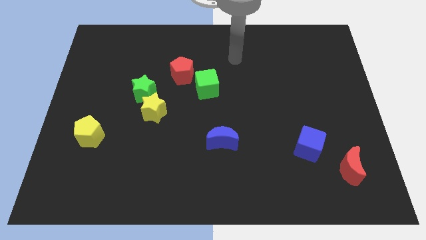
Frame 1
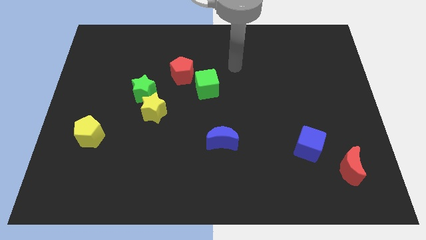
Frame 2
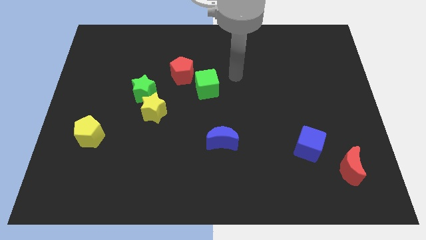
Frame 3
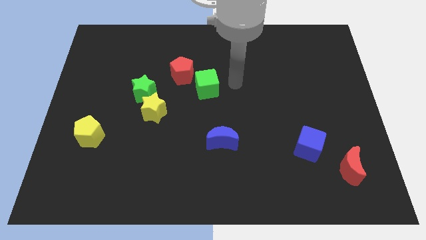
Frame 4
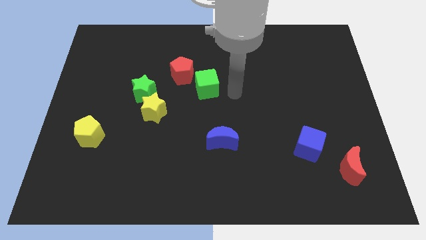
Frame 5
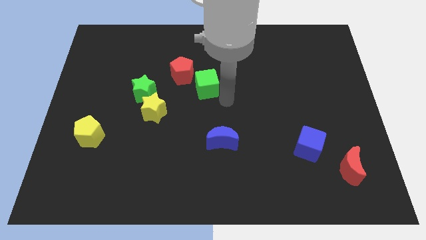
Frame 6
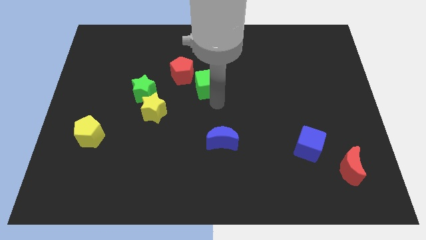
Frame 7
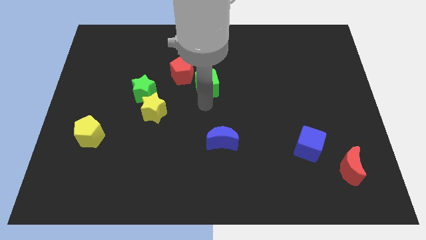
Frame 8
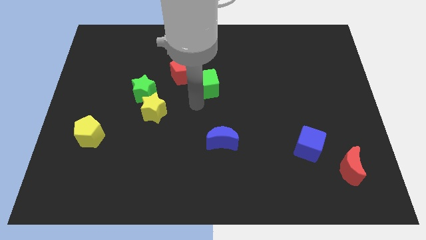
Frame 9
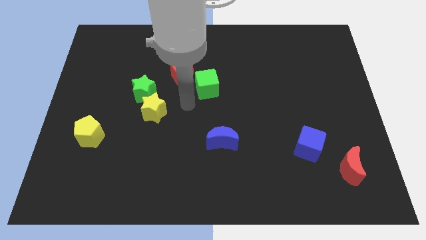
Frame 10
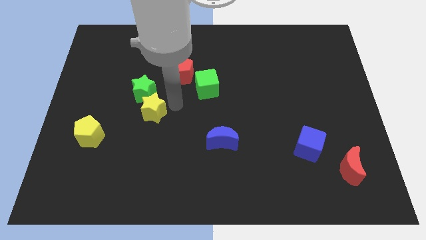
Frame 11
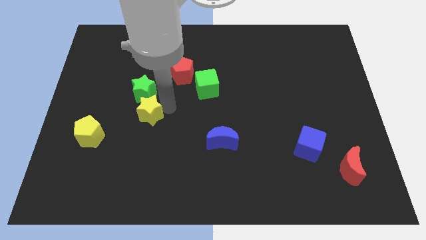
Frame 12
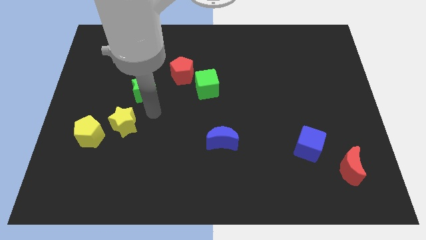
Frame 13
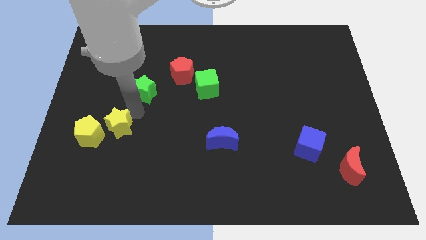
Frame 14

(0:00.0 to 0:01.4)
separate the green star from the yellow star

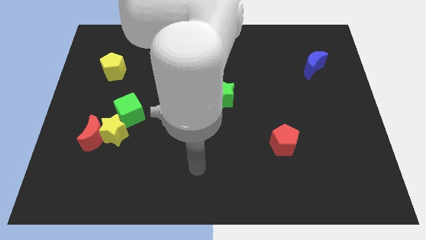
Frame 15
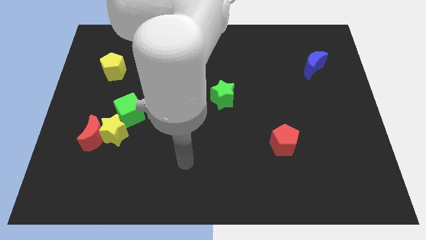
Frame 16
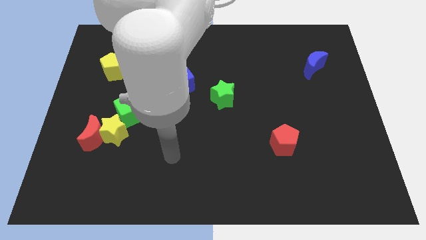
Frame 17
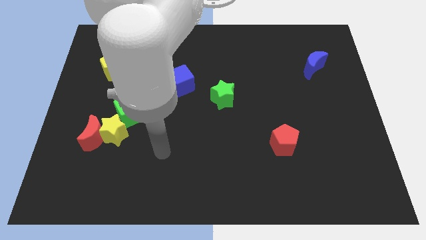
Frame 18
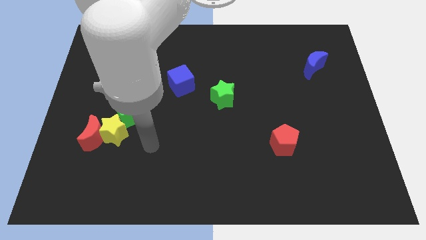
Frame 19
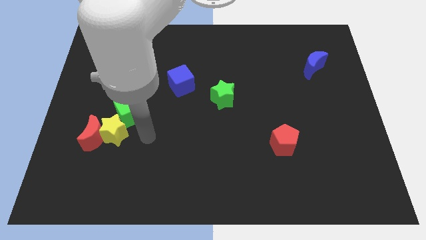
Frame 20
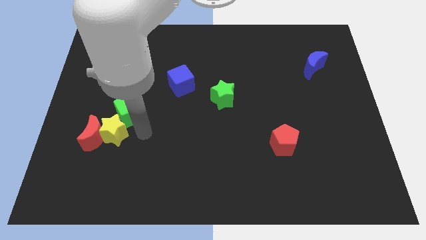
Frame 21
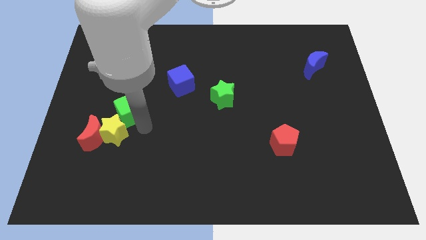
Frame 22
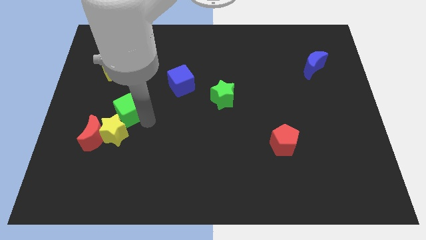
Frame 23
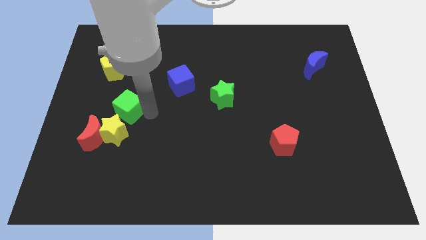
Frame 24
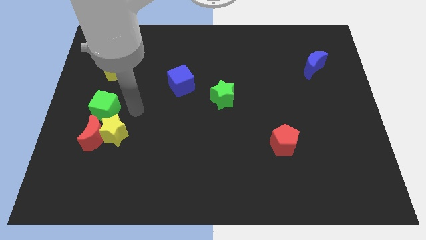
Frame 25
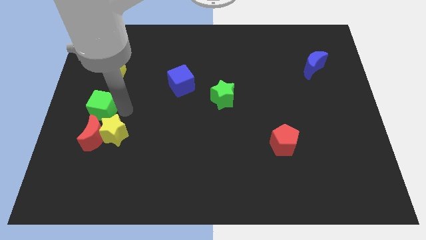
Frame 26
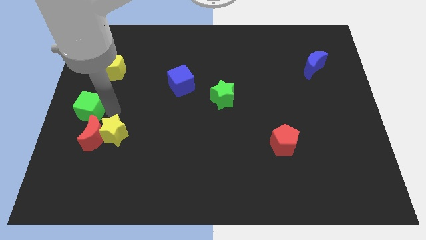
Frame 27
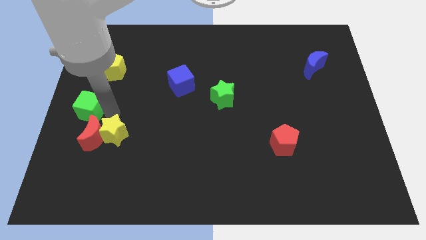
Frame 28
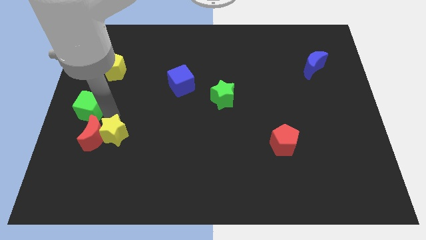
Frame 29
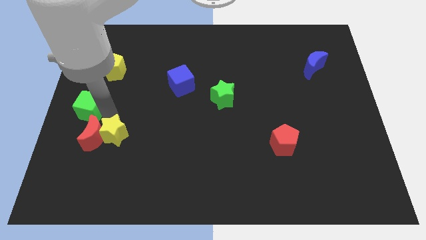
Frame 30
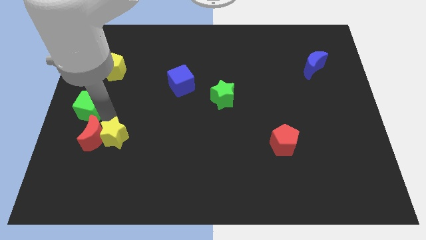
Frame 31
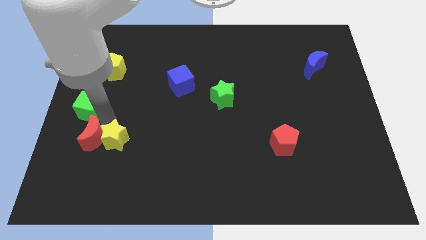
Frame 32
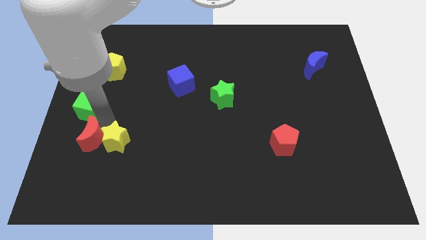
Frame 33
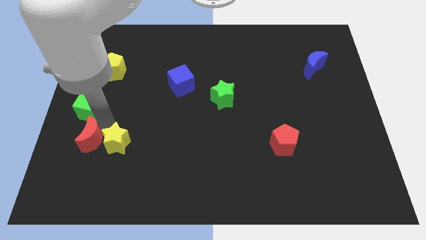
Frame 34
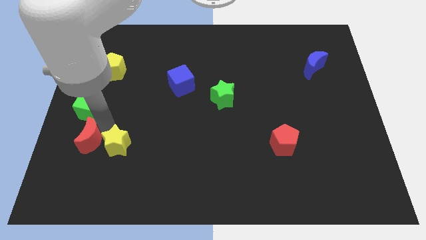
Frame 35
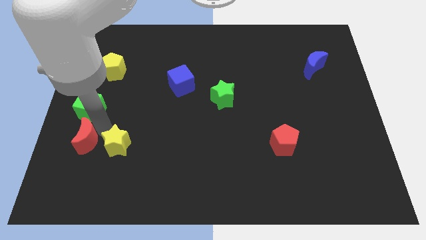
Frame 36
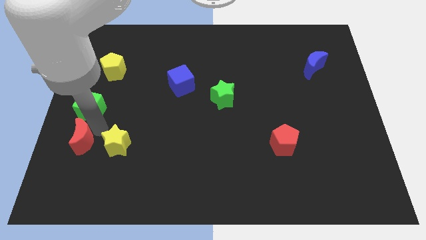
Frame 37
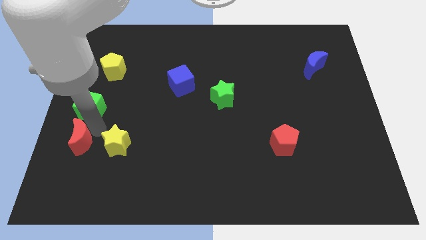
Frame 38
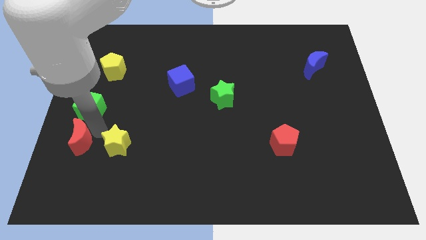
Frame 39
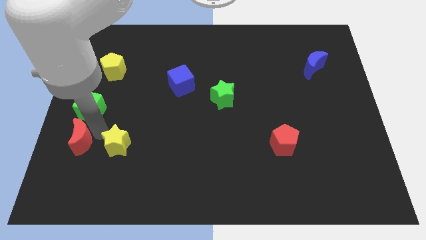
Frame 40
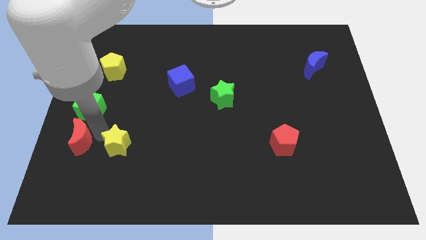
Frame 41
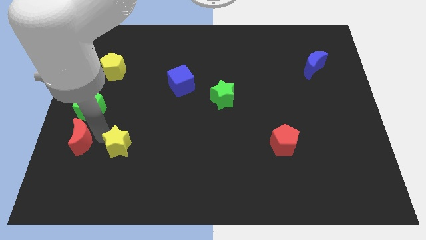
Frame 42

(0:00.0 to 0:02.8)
separate the yellow star from the red moon and green cube

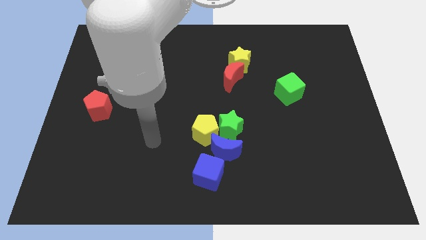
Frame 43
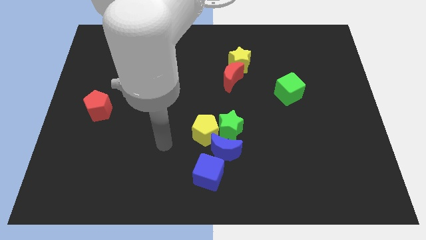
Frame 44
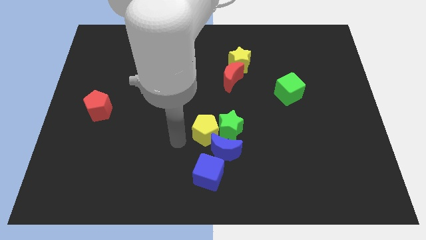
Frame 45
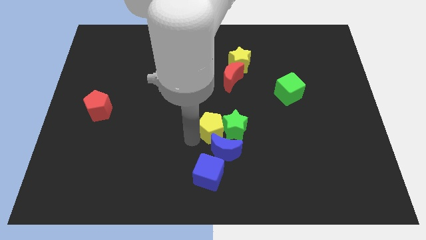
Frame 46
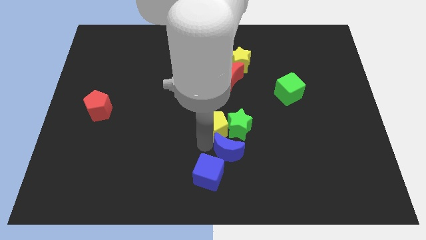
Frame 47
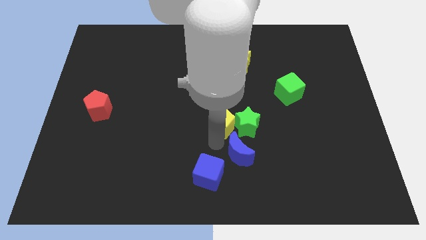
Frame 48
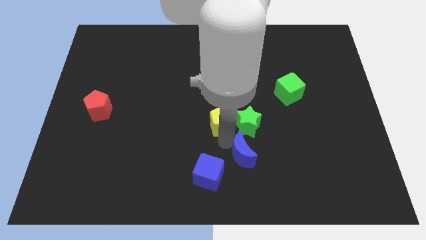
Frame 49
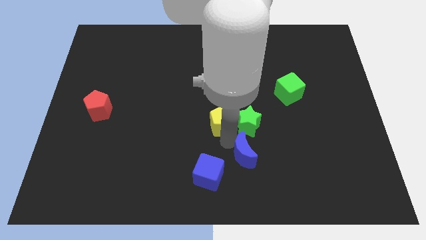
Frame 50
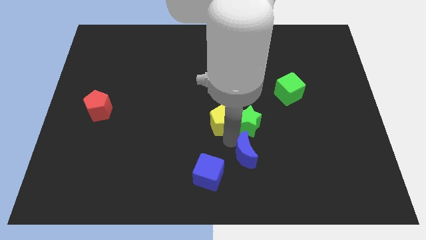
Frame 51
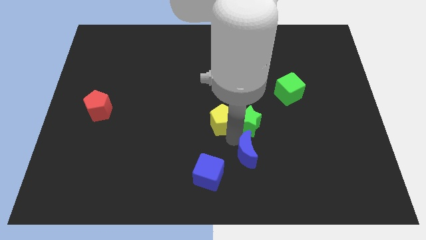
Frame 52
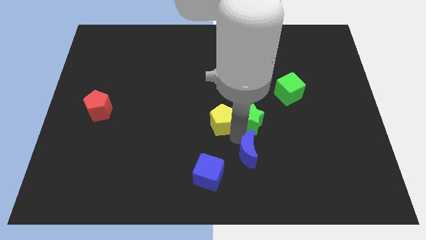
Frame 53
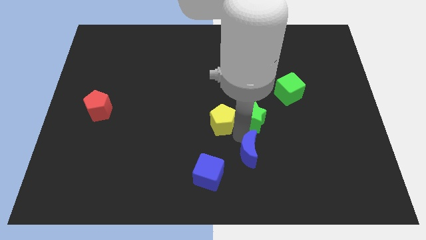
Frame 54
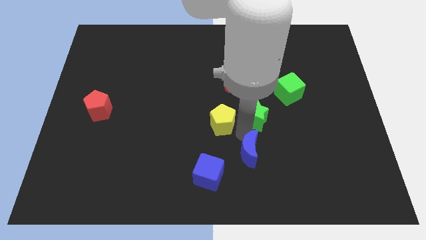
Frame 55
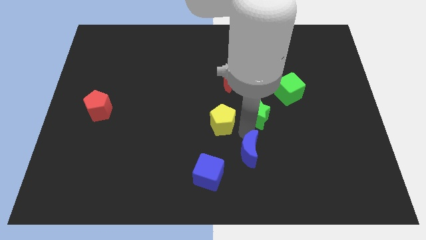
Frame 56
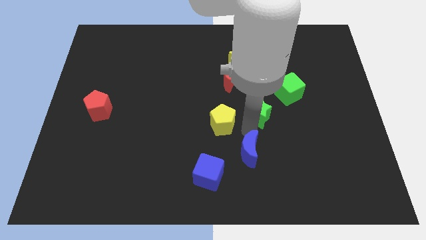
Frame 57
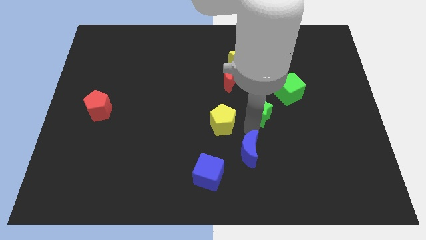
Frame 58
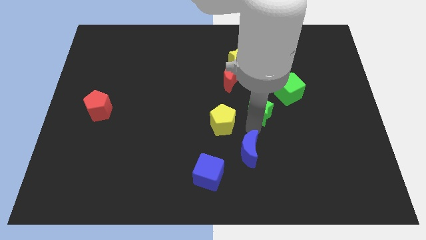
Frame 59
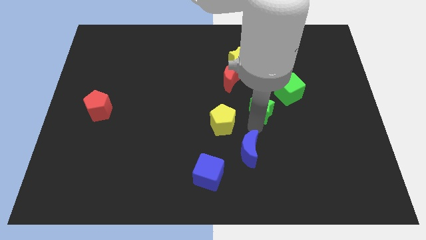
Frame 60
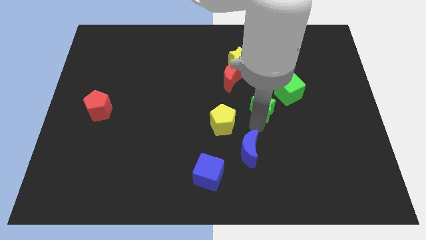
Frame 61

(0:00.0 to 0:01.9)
move the green star away from the yellow pentagon and blue moon

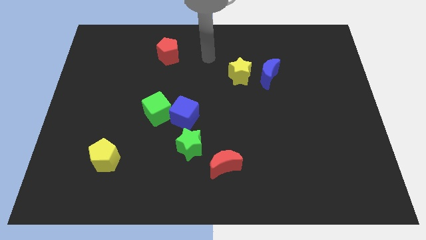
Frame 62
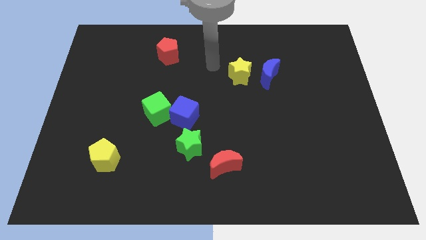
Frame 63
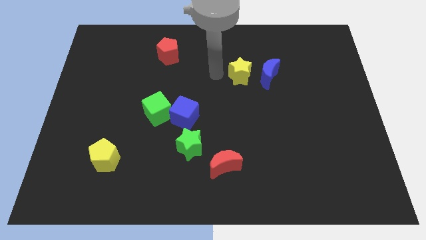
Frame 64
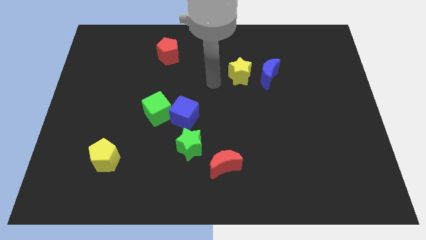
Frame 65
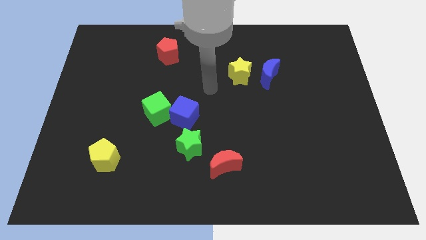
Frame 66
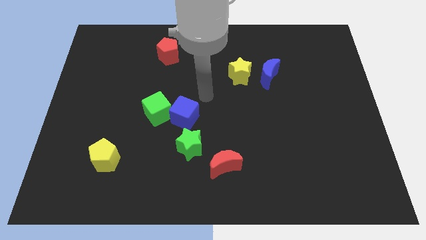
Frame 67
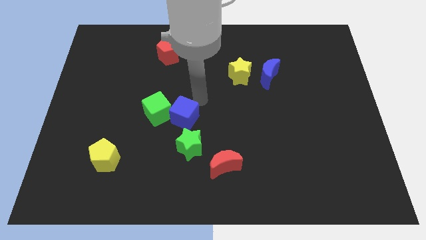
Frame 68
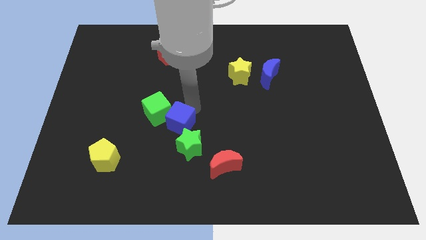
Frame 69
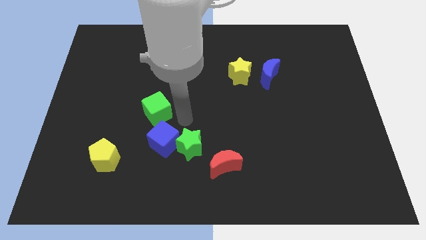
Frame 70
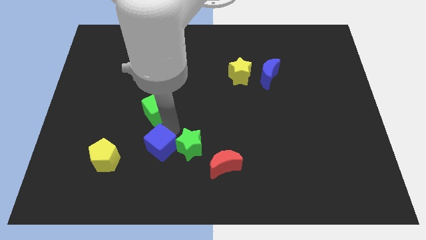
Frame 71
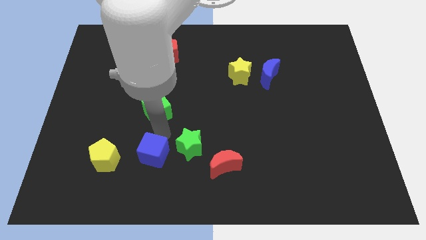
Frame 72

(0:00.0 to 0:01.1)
separate the green cube from the blue cube

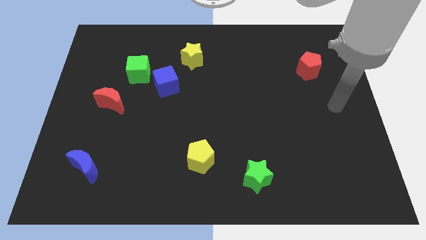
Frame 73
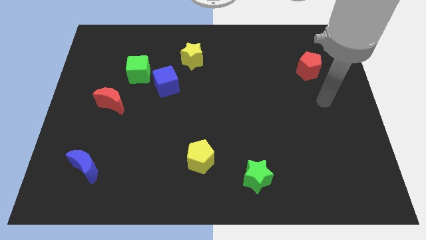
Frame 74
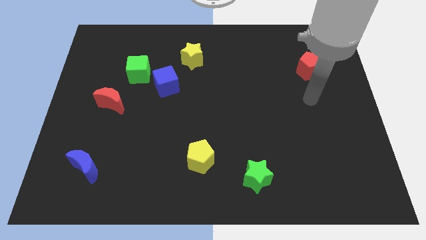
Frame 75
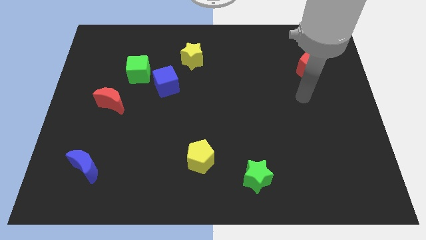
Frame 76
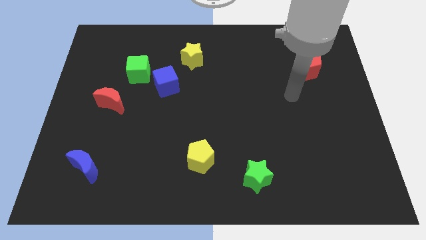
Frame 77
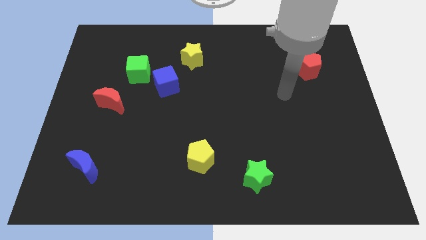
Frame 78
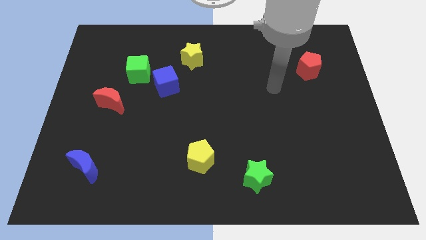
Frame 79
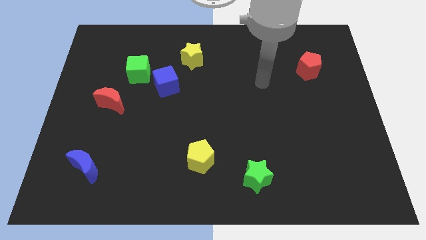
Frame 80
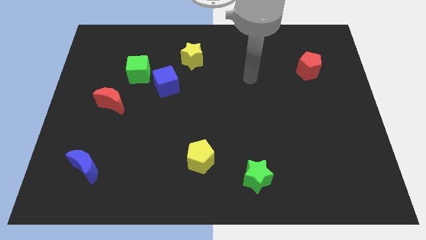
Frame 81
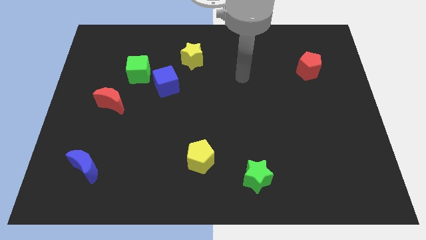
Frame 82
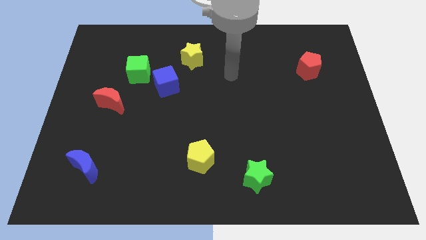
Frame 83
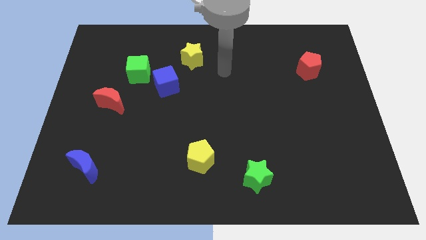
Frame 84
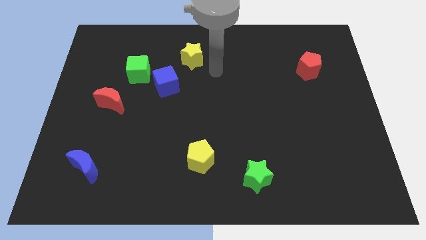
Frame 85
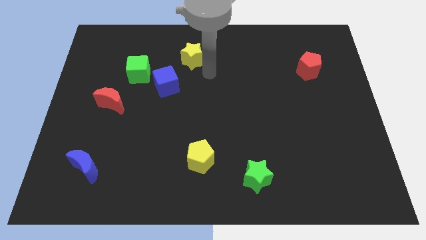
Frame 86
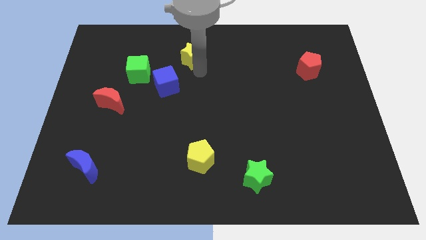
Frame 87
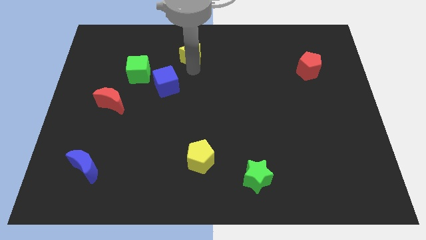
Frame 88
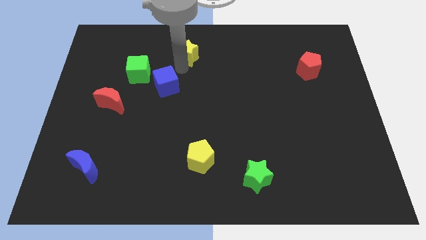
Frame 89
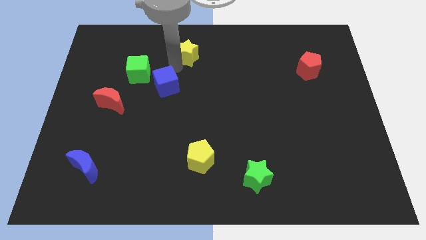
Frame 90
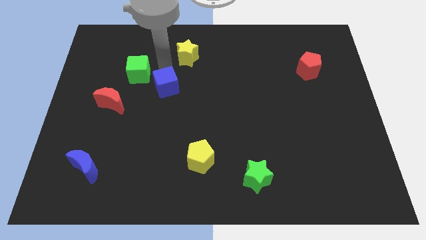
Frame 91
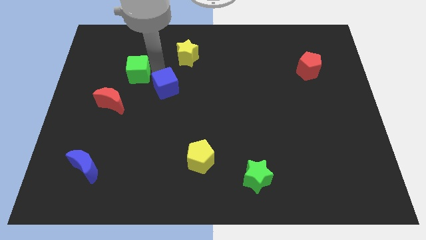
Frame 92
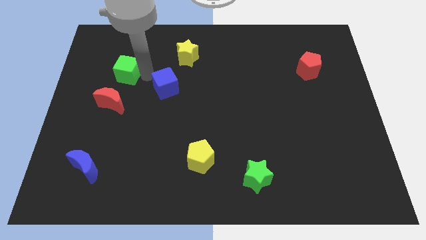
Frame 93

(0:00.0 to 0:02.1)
pull the blue cube apart from the green cube
